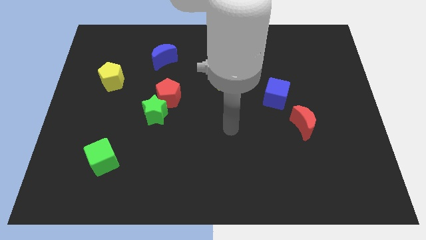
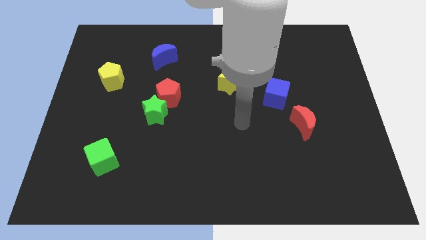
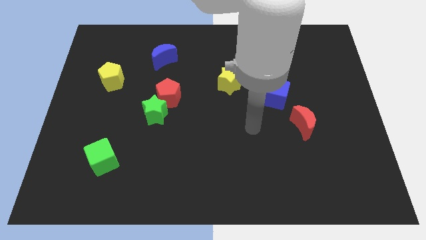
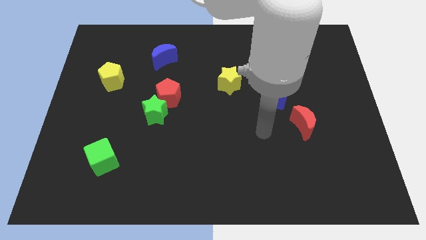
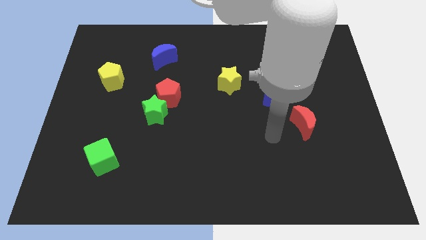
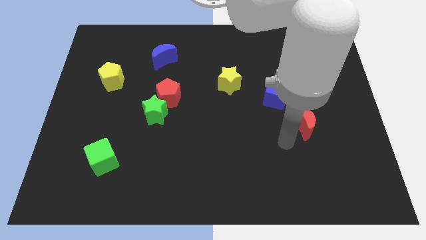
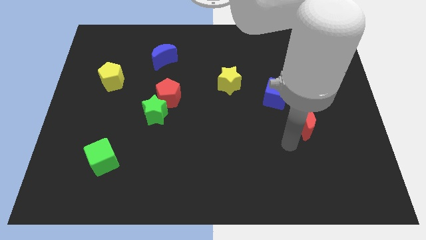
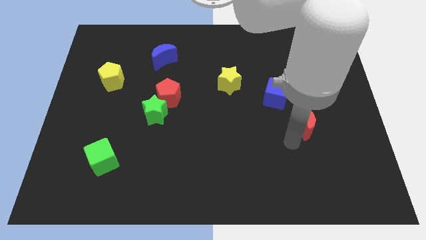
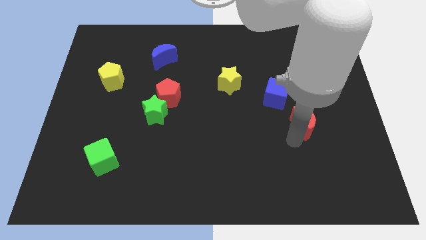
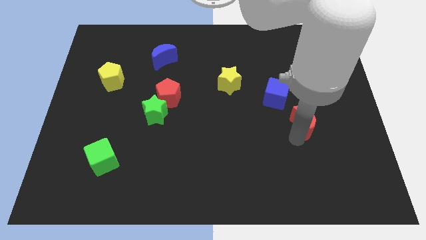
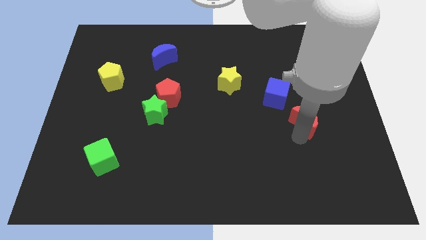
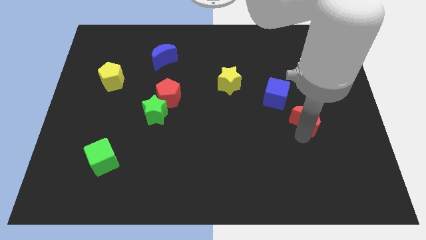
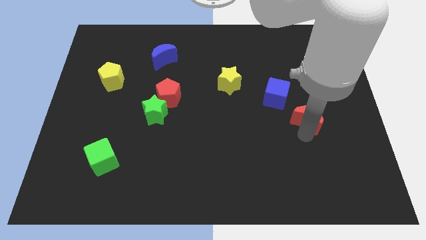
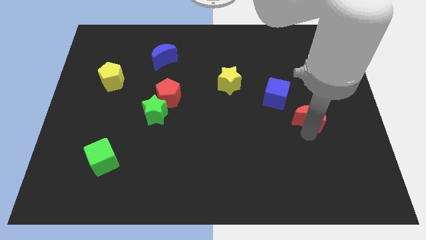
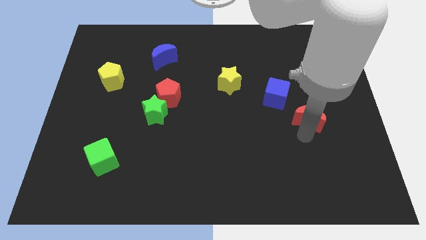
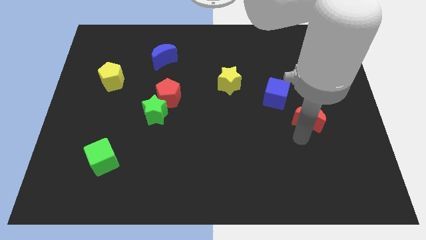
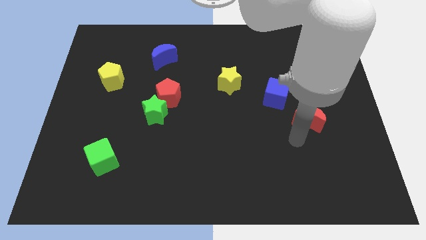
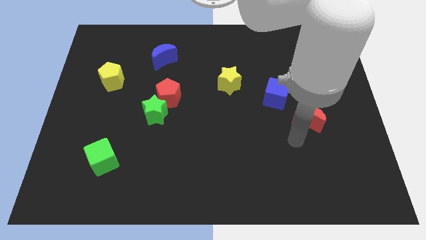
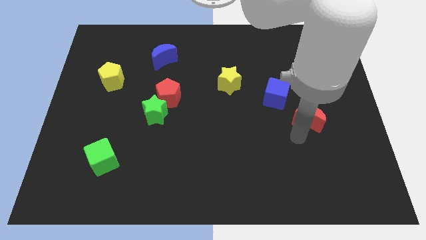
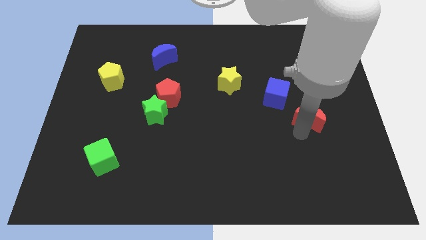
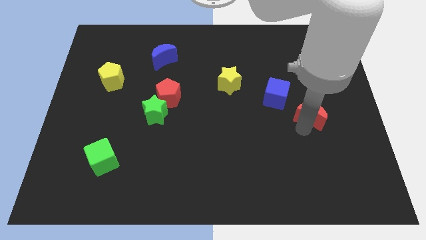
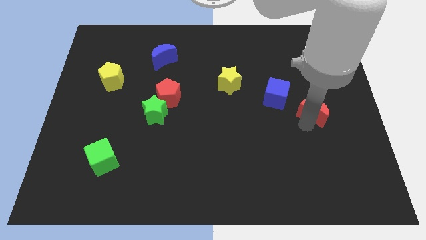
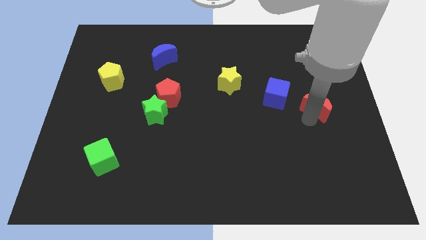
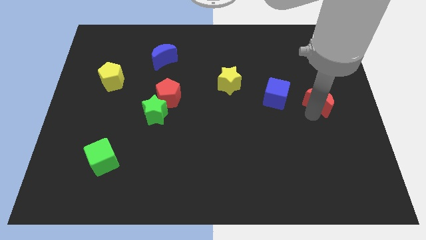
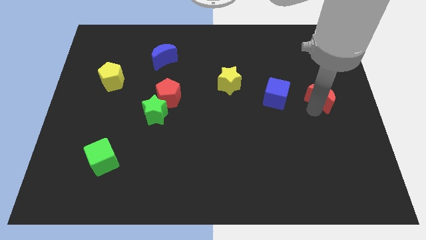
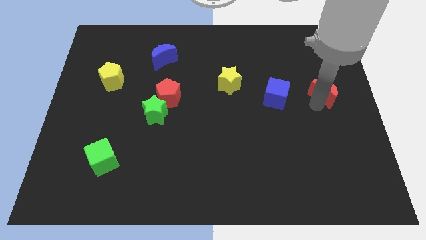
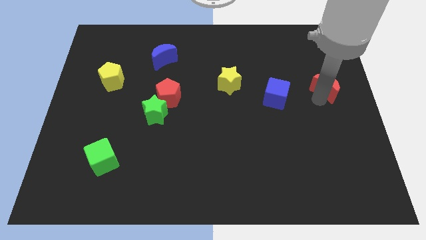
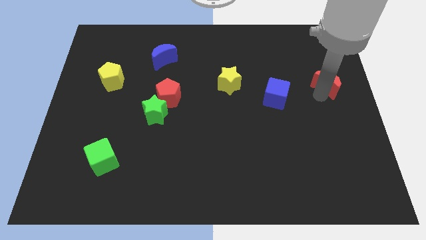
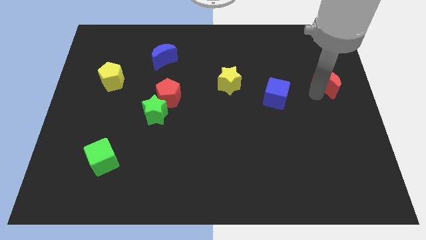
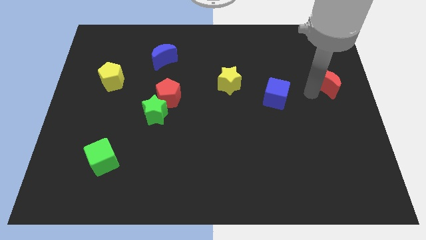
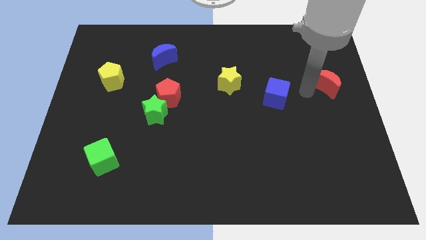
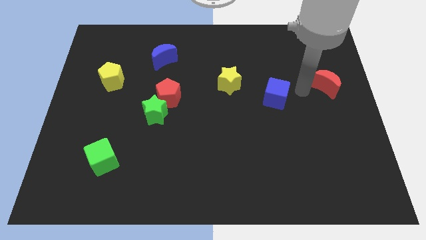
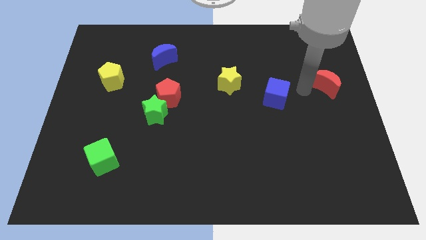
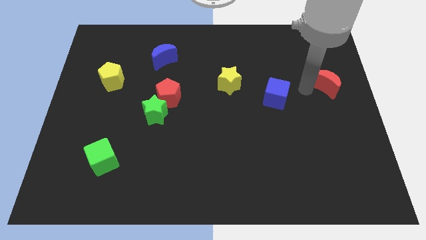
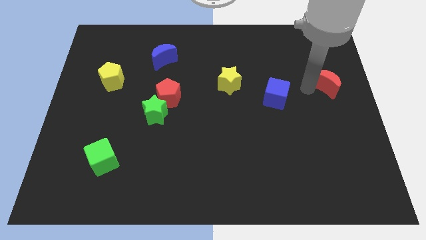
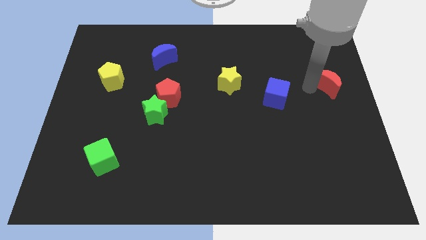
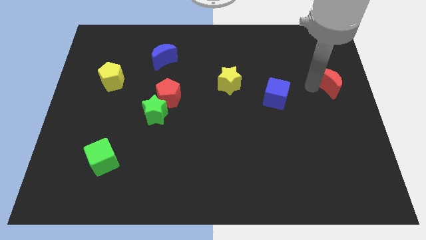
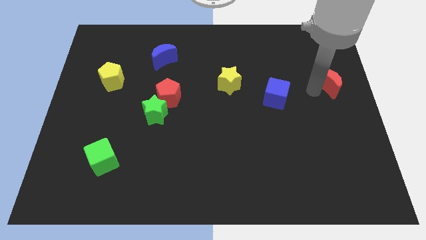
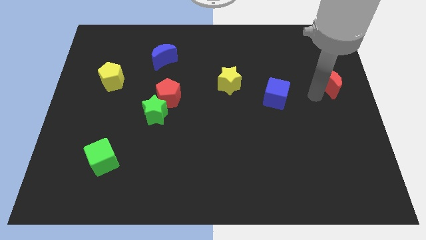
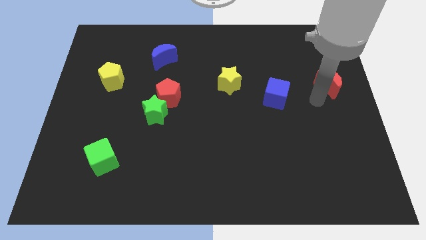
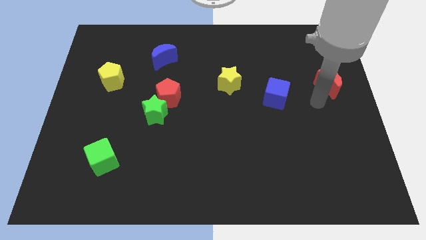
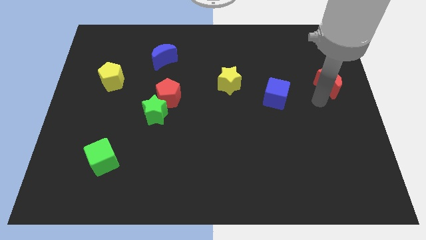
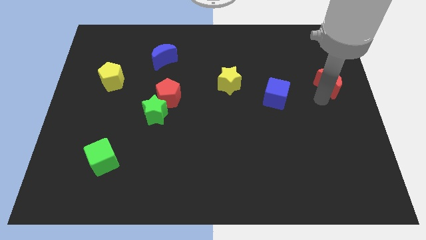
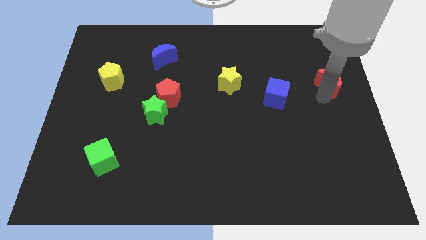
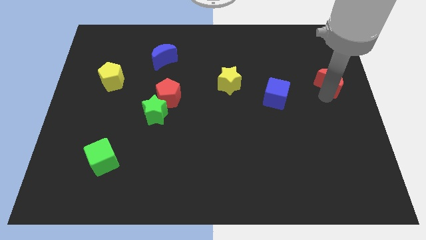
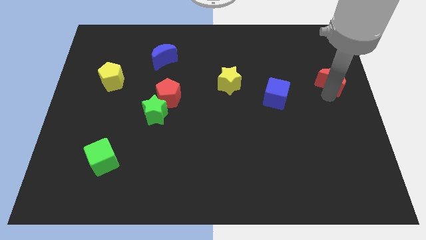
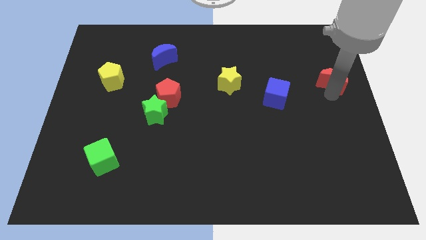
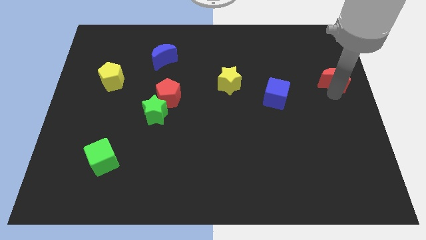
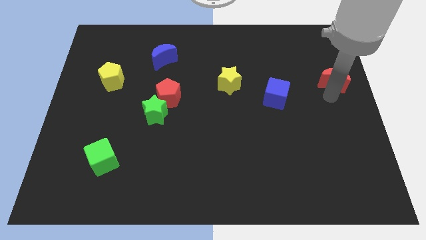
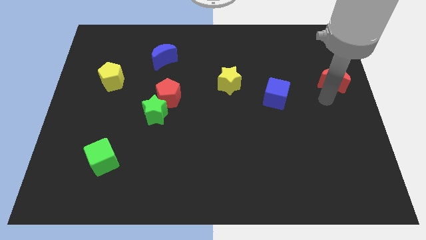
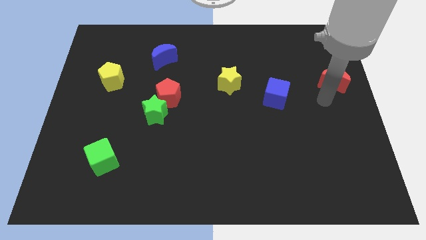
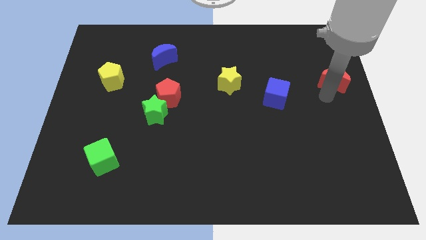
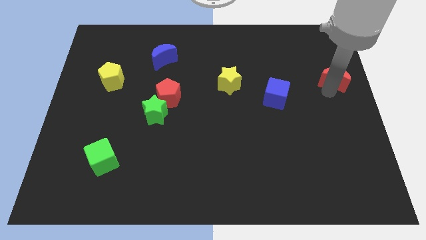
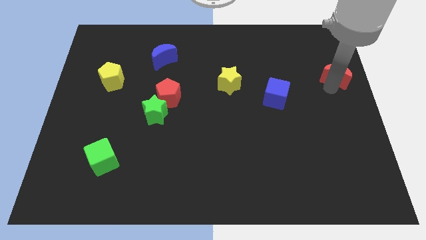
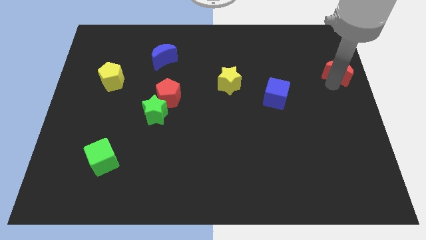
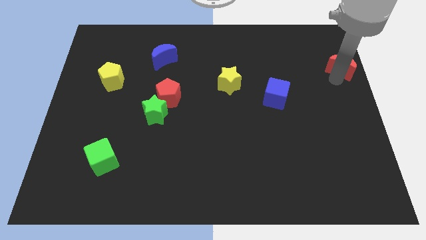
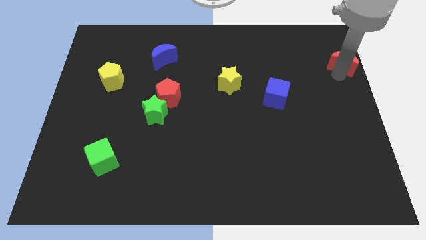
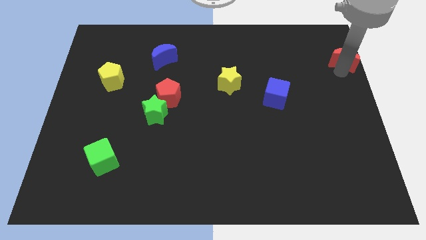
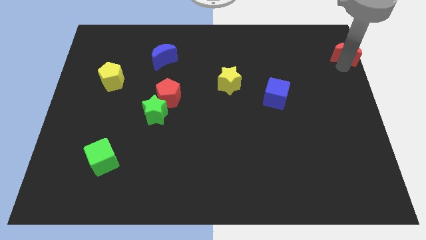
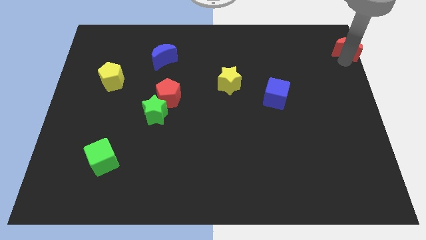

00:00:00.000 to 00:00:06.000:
move the red moon to the top right

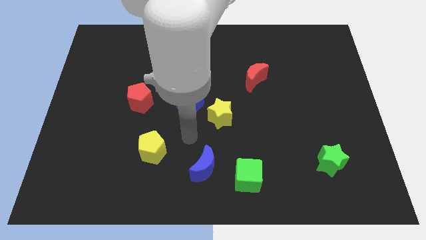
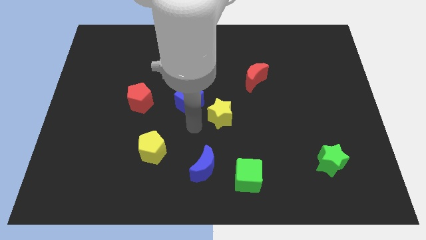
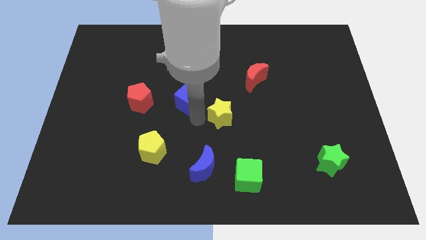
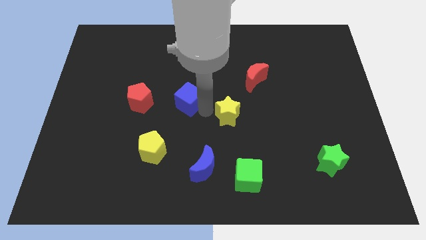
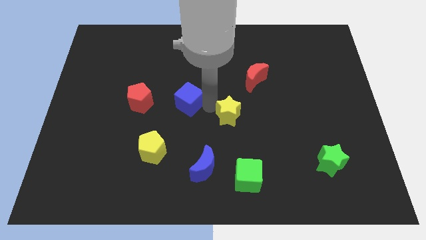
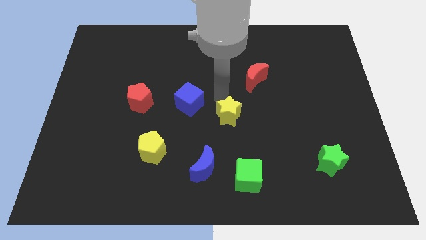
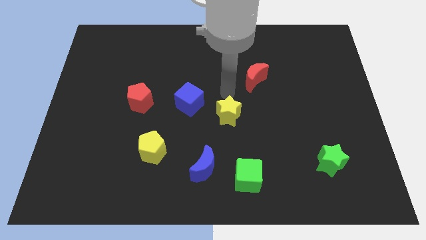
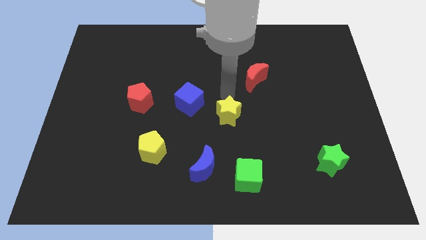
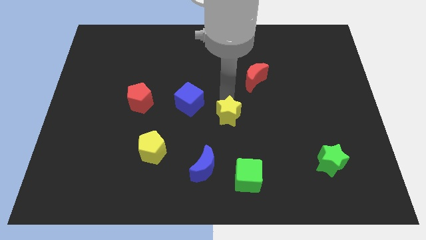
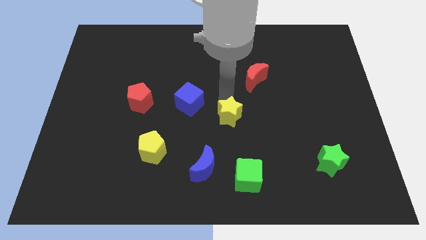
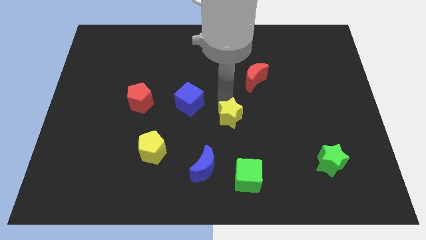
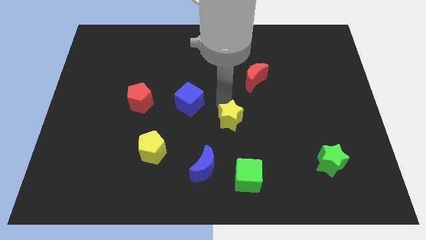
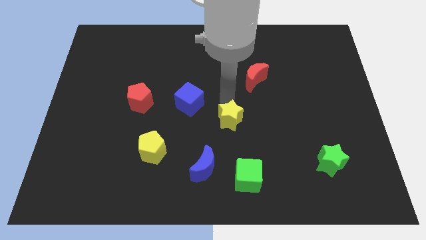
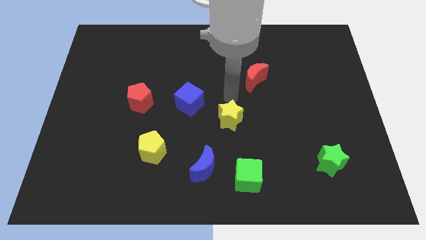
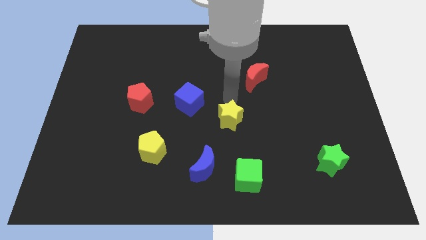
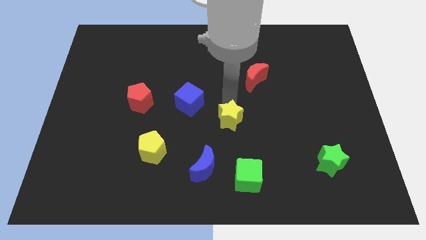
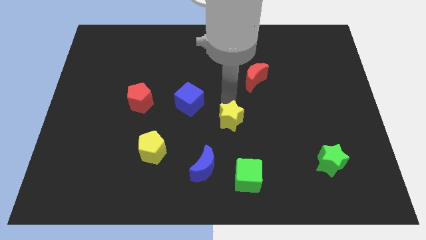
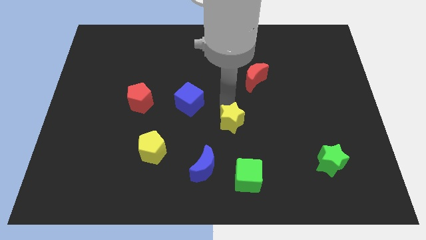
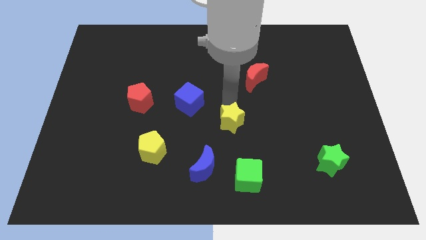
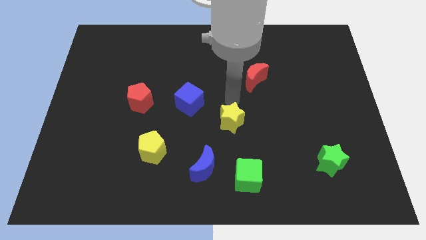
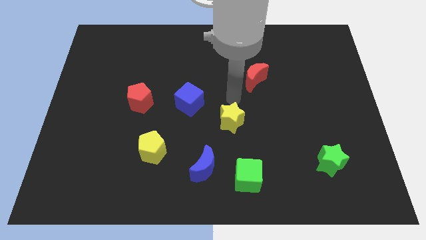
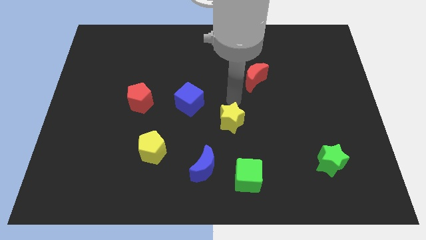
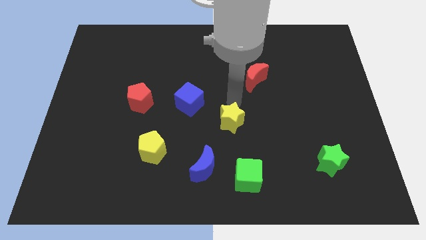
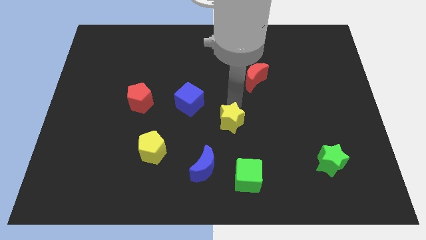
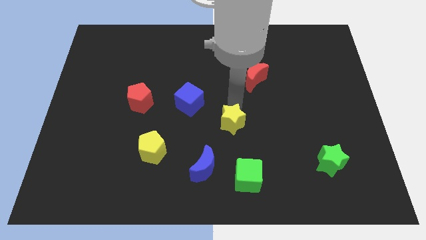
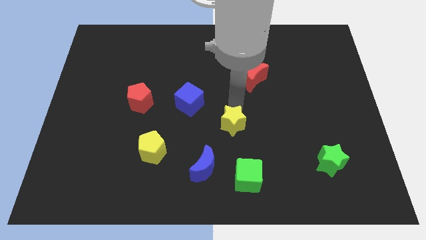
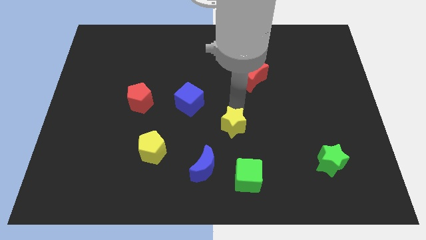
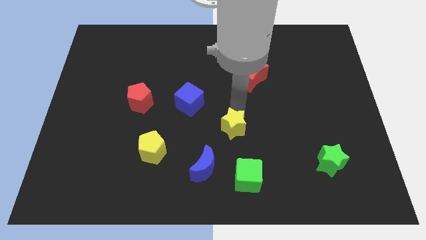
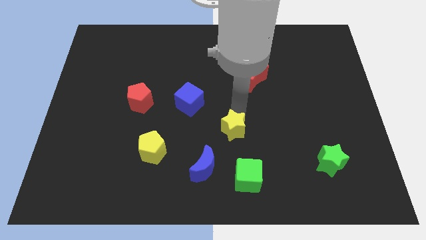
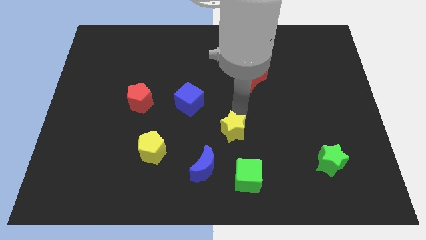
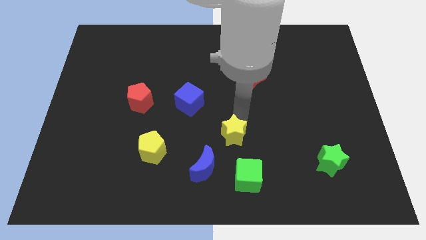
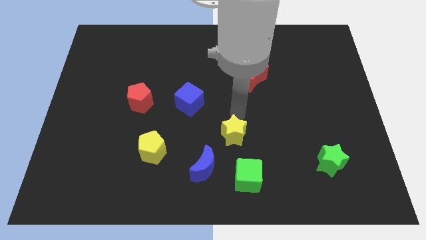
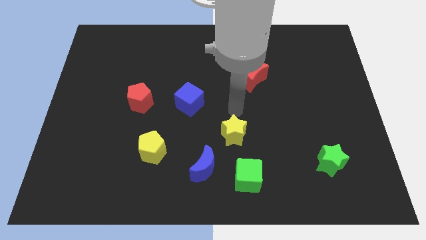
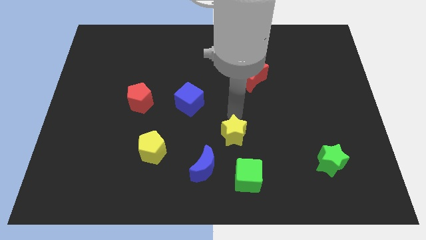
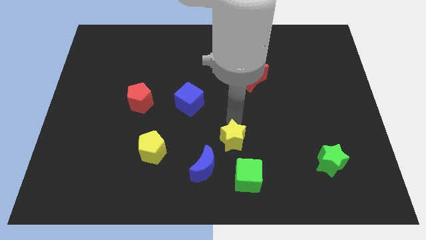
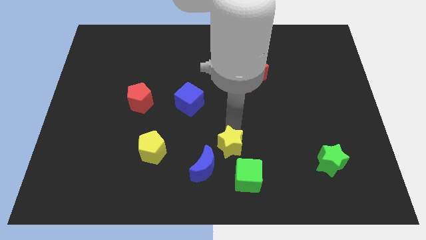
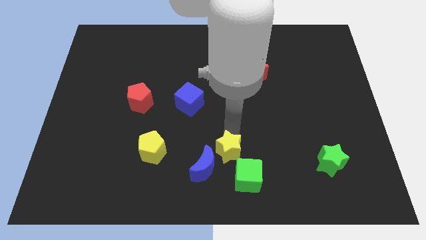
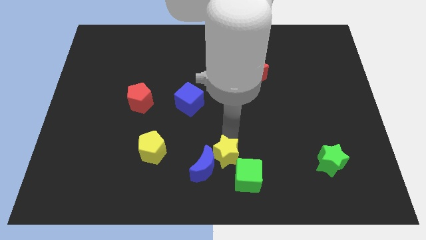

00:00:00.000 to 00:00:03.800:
put the yellow star to the bottom side
